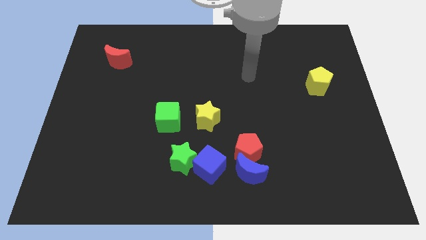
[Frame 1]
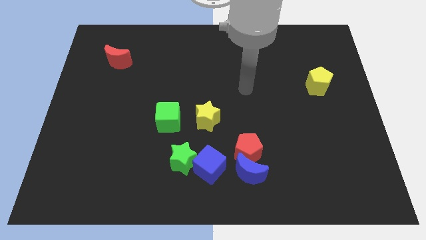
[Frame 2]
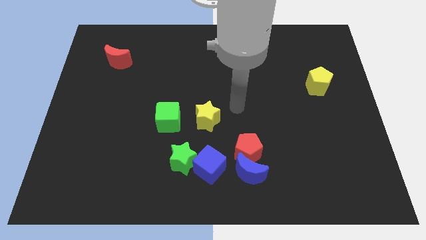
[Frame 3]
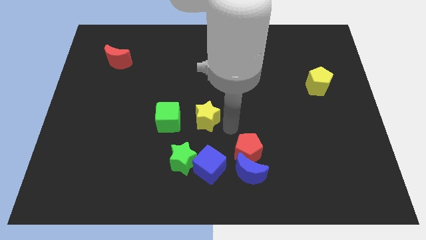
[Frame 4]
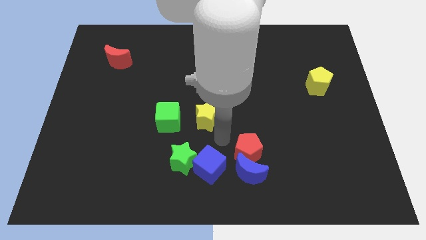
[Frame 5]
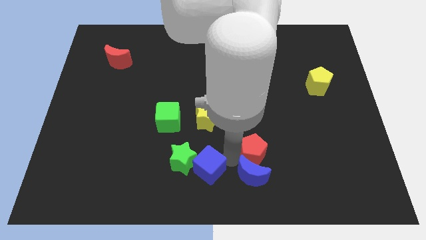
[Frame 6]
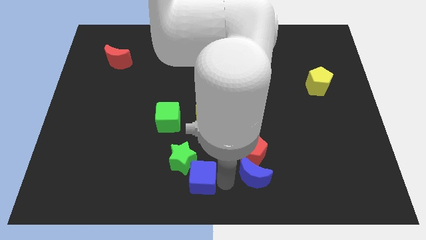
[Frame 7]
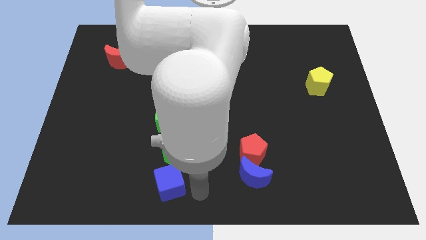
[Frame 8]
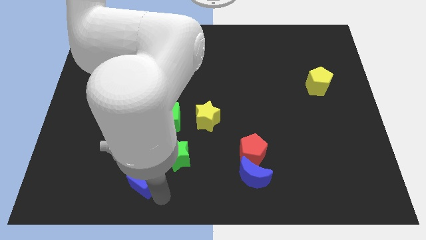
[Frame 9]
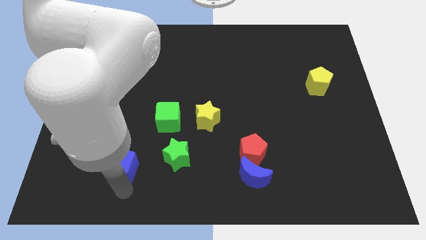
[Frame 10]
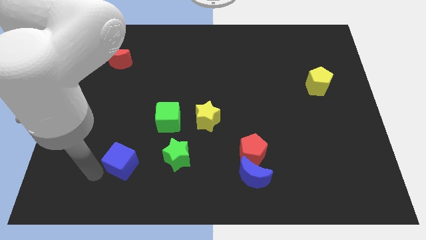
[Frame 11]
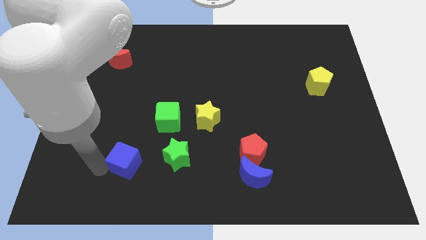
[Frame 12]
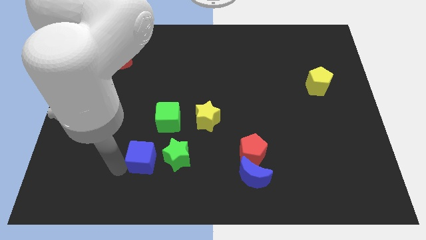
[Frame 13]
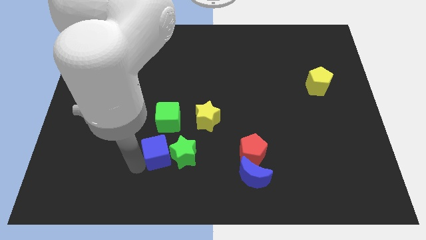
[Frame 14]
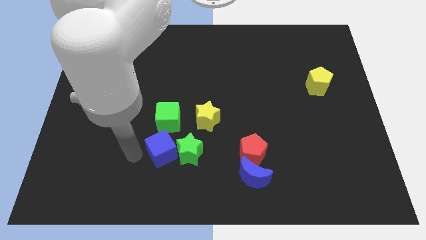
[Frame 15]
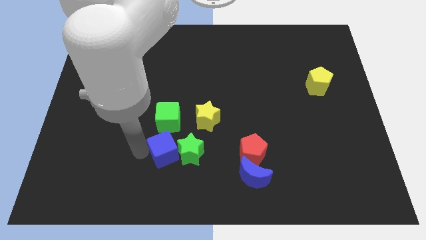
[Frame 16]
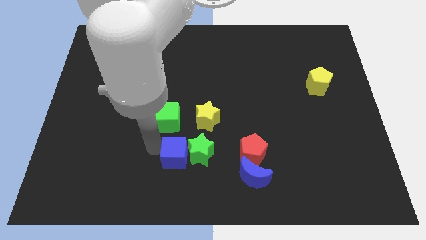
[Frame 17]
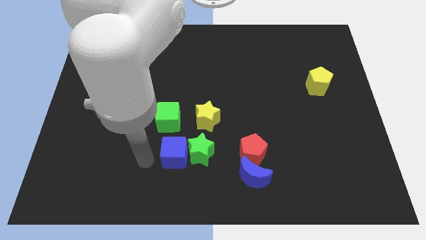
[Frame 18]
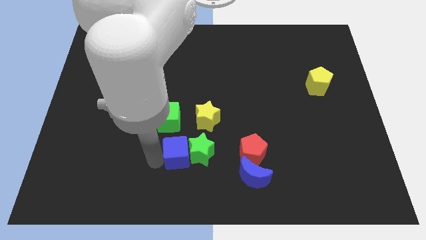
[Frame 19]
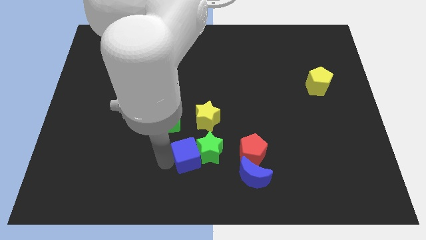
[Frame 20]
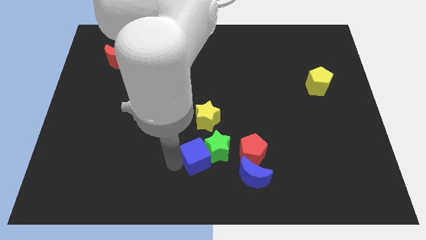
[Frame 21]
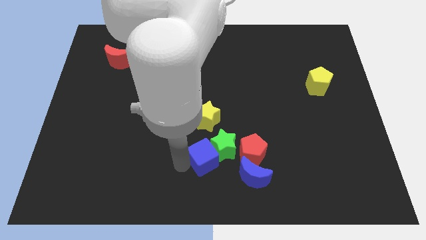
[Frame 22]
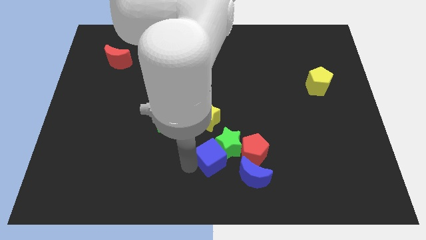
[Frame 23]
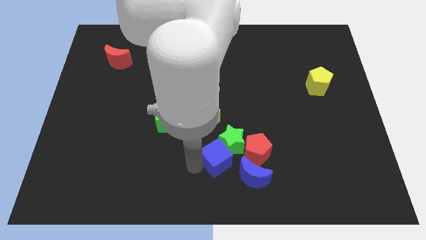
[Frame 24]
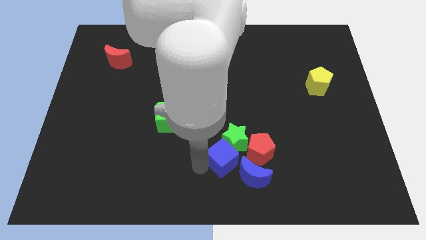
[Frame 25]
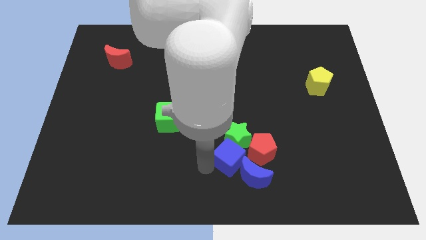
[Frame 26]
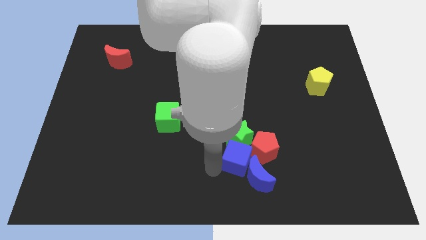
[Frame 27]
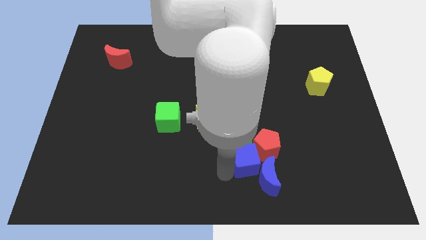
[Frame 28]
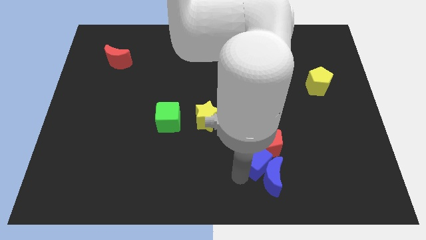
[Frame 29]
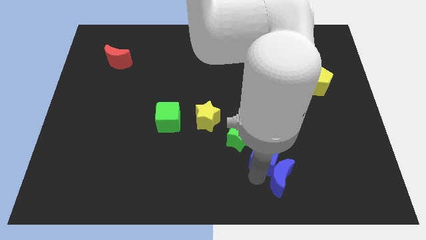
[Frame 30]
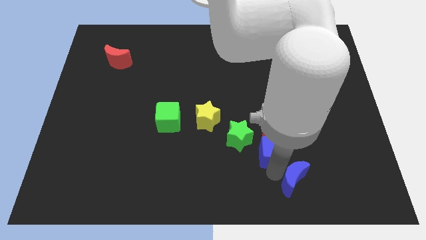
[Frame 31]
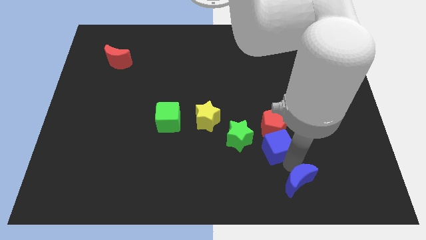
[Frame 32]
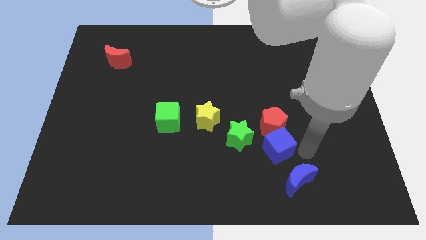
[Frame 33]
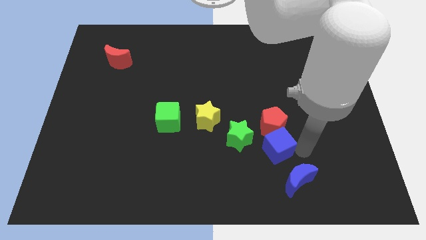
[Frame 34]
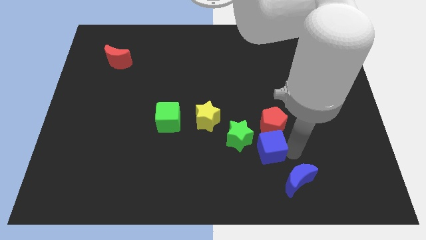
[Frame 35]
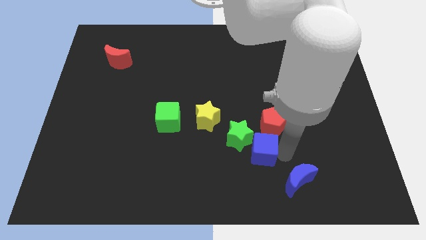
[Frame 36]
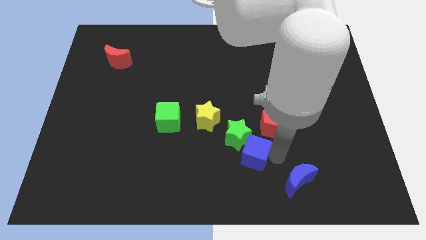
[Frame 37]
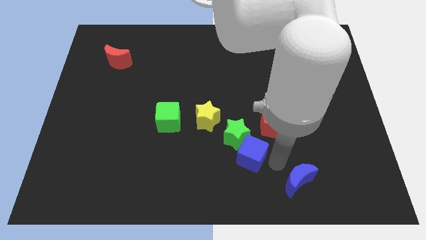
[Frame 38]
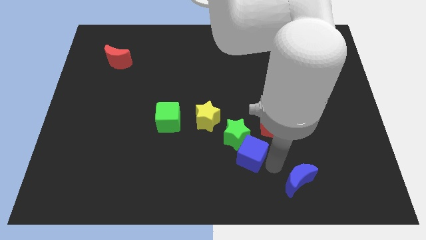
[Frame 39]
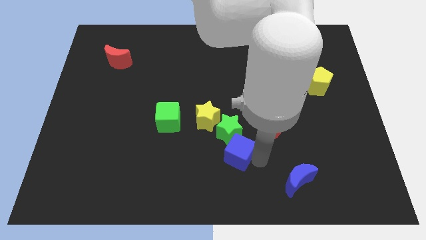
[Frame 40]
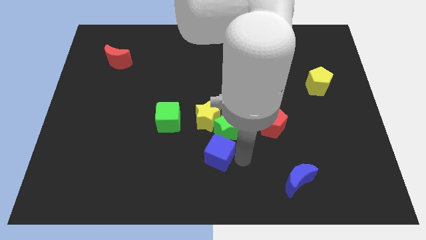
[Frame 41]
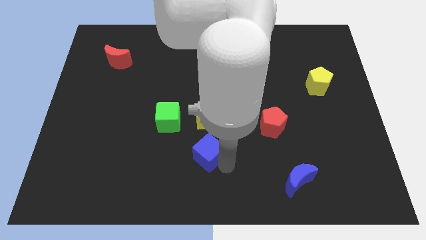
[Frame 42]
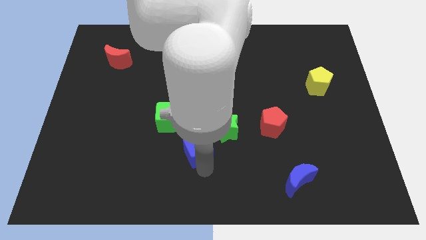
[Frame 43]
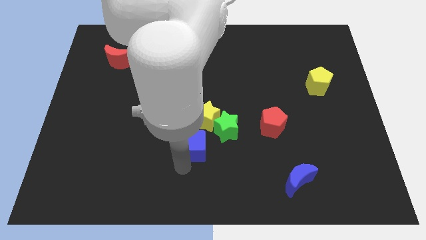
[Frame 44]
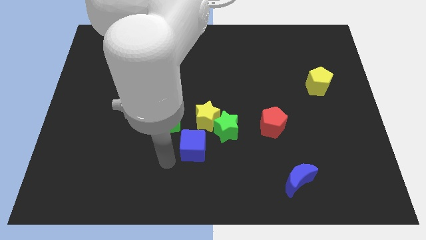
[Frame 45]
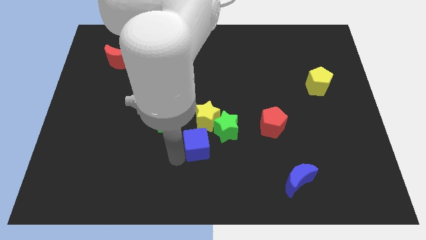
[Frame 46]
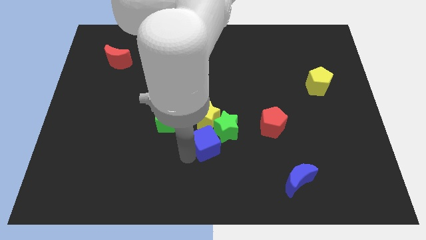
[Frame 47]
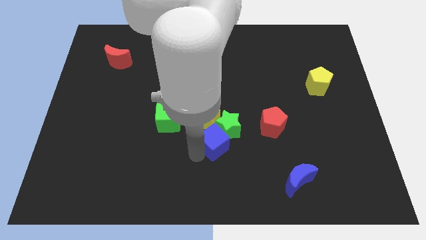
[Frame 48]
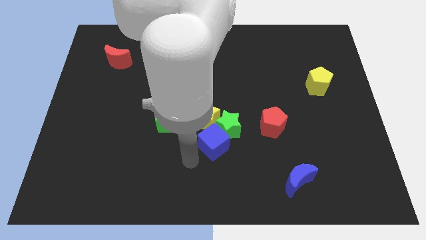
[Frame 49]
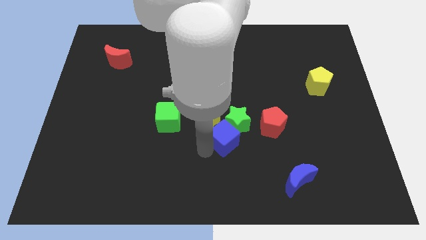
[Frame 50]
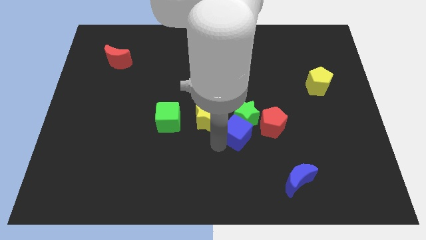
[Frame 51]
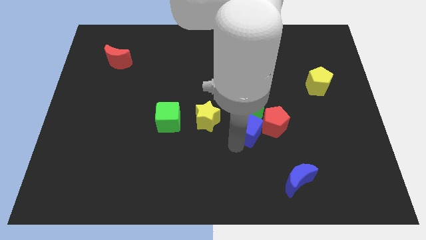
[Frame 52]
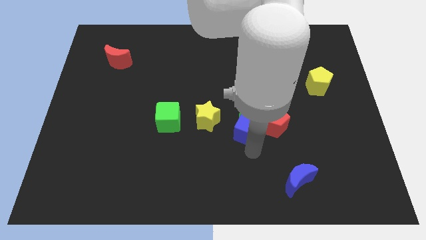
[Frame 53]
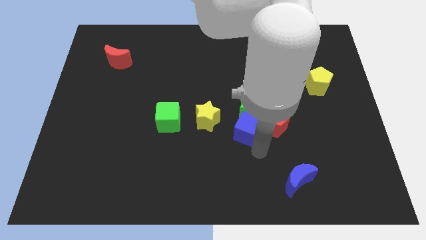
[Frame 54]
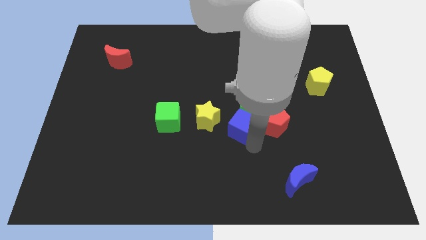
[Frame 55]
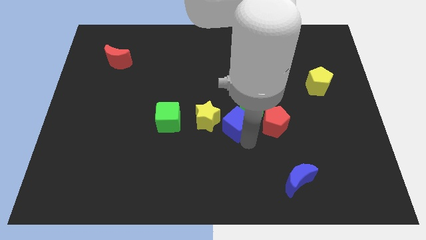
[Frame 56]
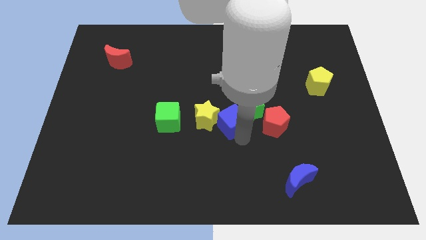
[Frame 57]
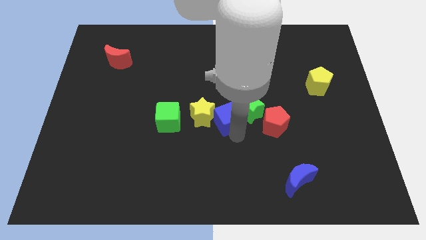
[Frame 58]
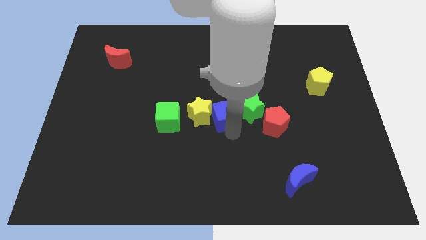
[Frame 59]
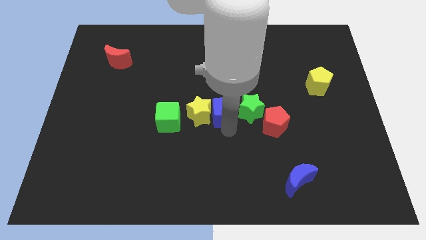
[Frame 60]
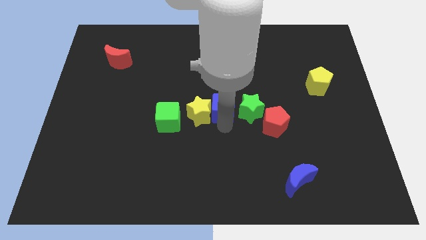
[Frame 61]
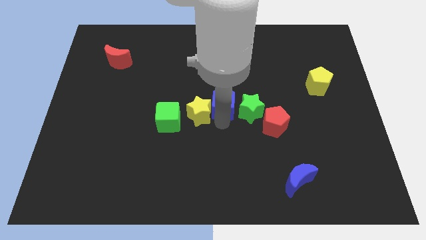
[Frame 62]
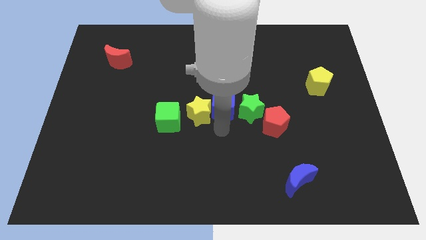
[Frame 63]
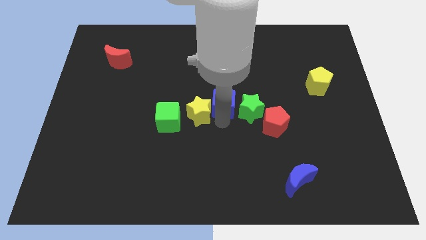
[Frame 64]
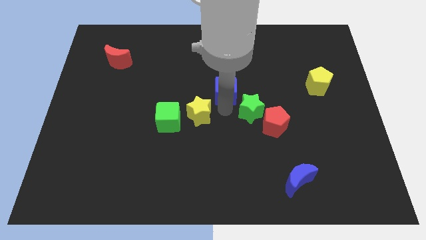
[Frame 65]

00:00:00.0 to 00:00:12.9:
slide the blue cube up

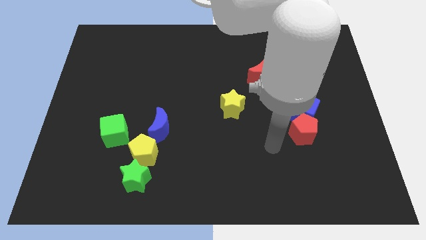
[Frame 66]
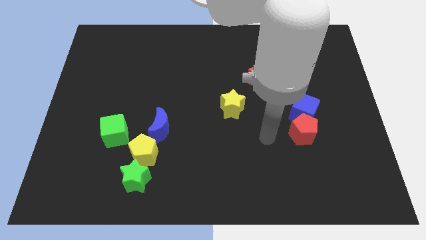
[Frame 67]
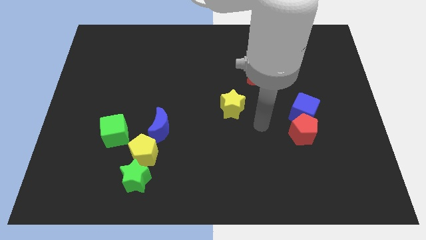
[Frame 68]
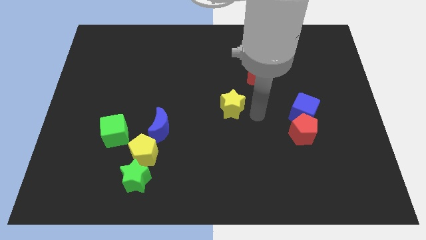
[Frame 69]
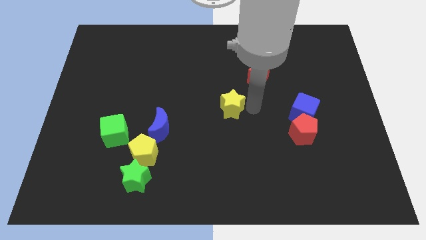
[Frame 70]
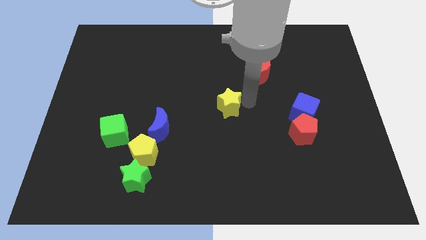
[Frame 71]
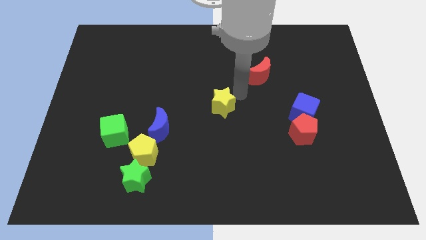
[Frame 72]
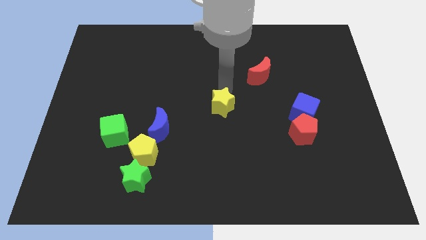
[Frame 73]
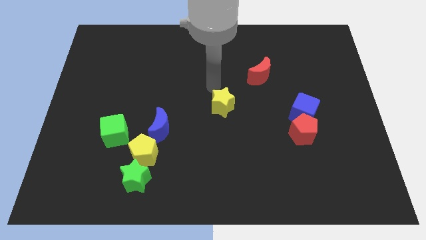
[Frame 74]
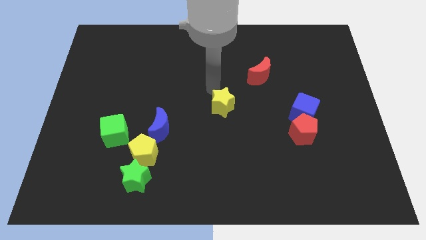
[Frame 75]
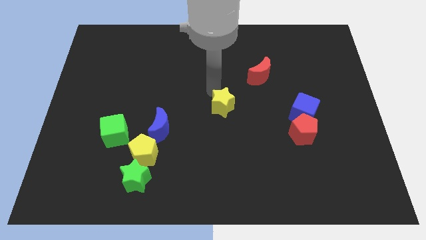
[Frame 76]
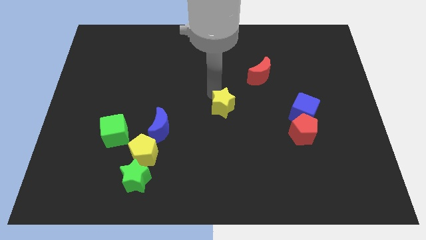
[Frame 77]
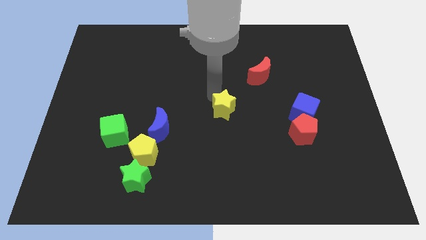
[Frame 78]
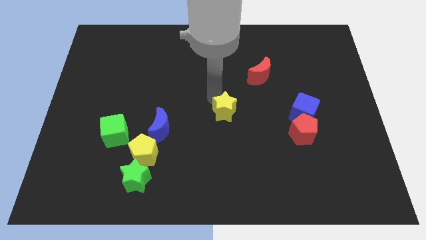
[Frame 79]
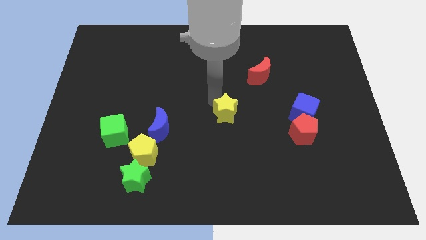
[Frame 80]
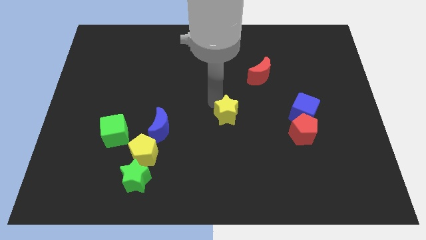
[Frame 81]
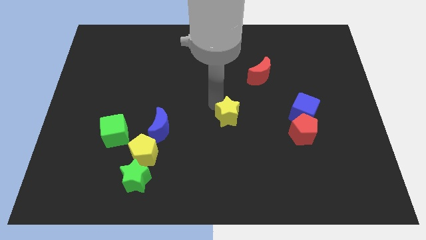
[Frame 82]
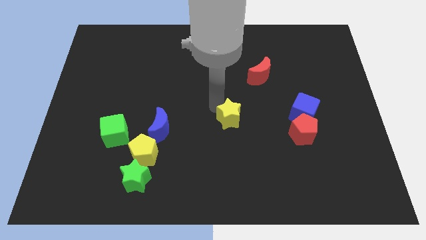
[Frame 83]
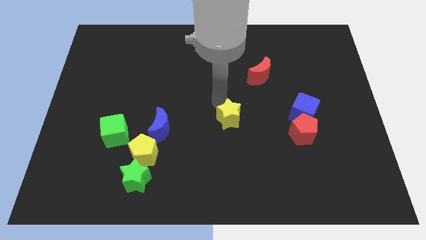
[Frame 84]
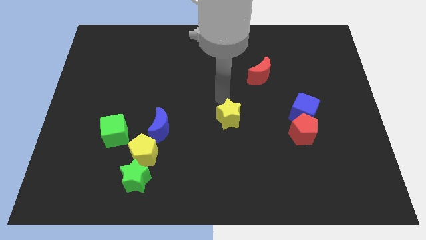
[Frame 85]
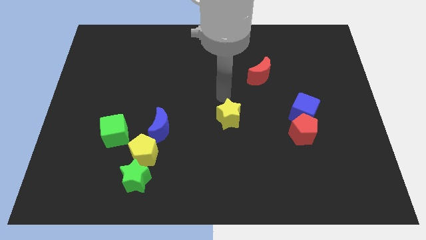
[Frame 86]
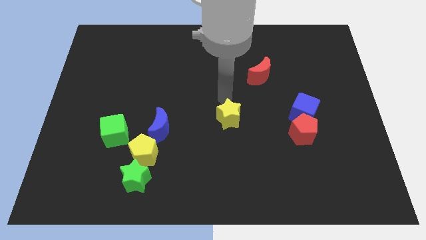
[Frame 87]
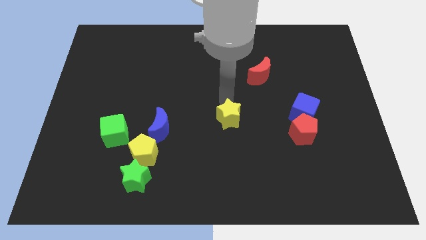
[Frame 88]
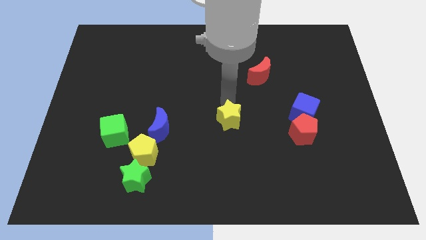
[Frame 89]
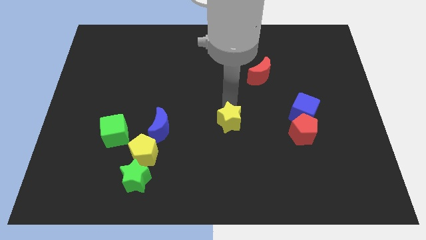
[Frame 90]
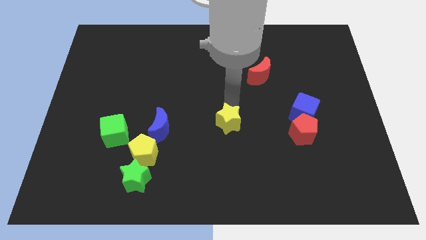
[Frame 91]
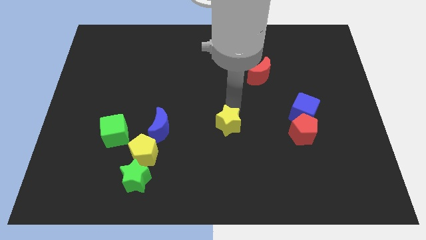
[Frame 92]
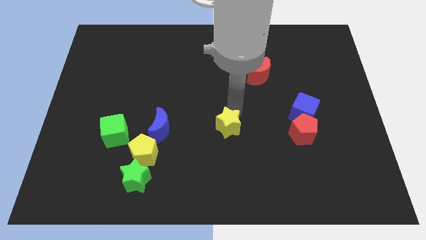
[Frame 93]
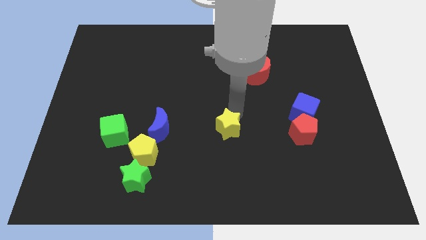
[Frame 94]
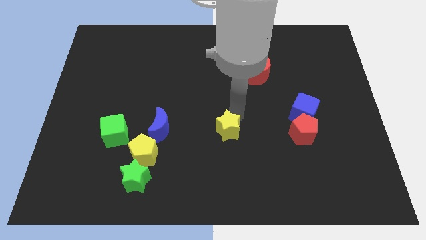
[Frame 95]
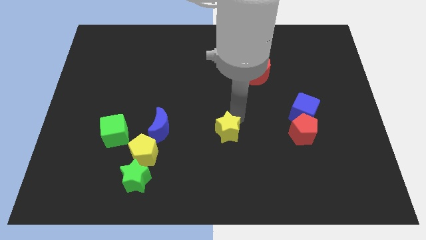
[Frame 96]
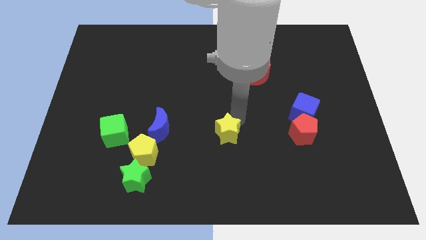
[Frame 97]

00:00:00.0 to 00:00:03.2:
slightly slide the yellow star down
